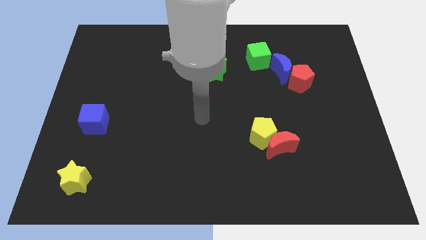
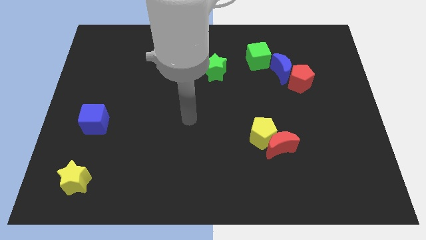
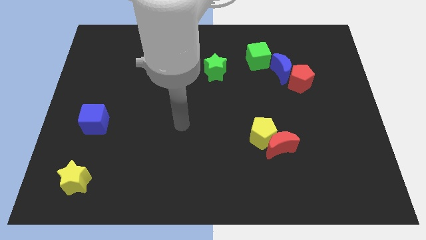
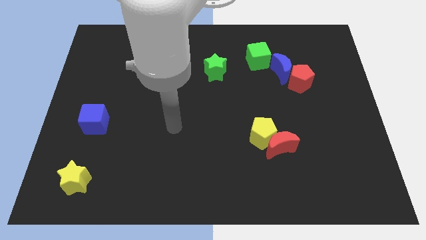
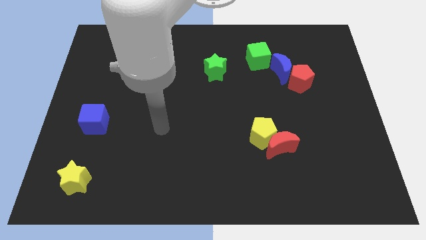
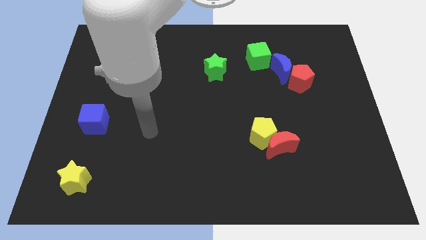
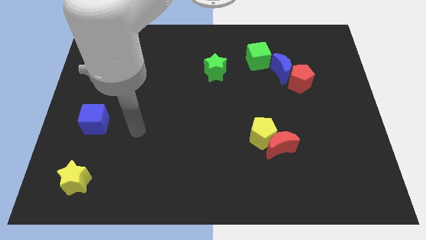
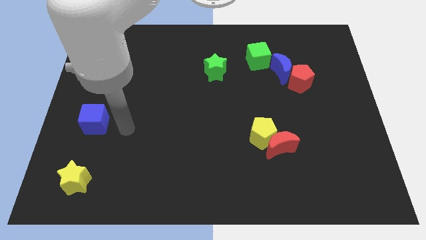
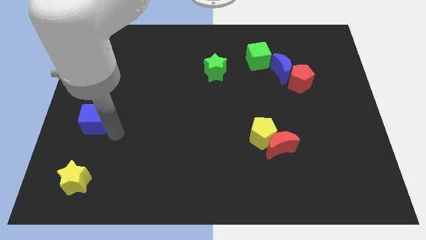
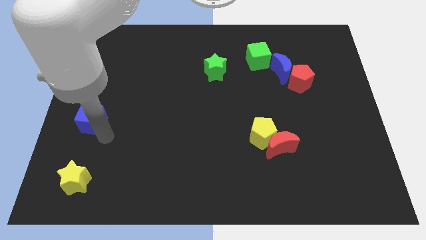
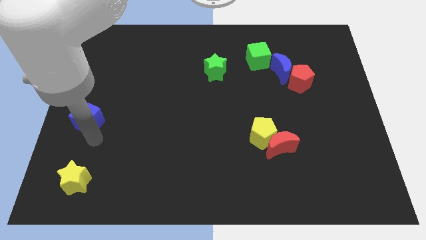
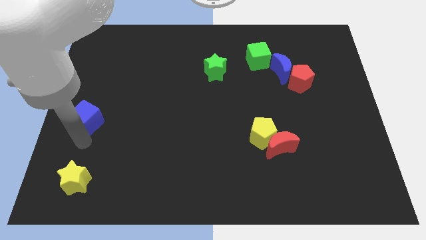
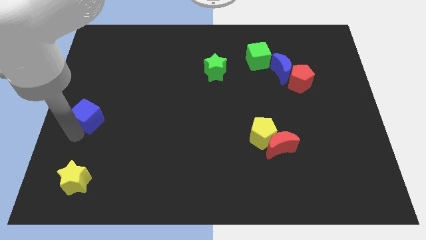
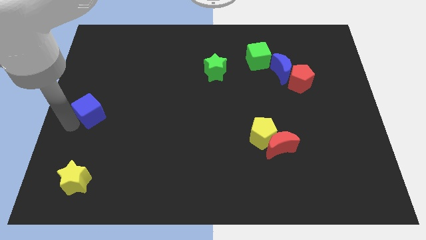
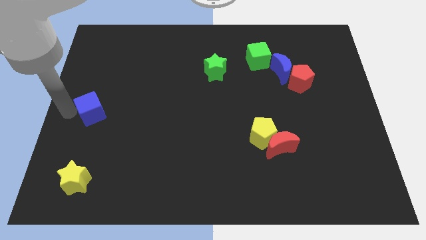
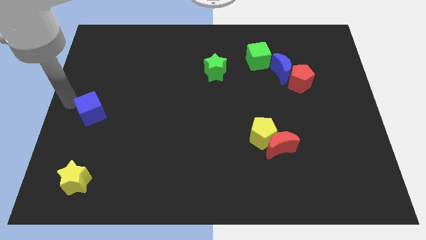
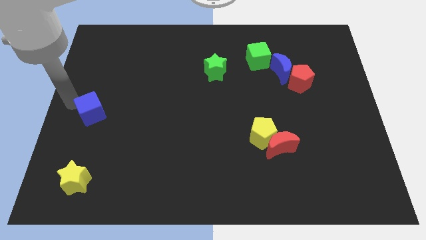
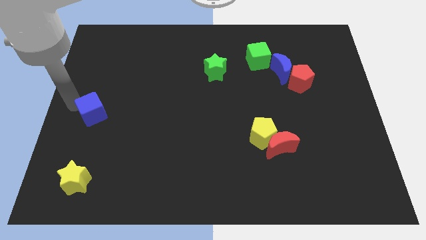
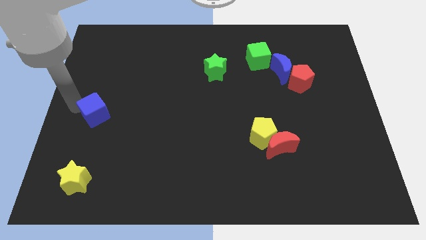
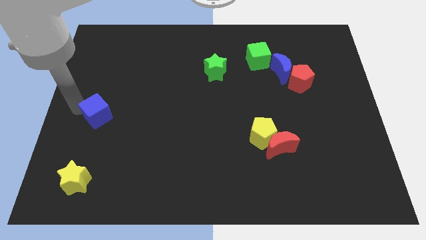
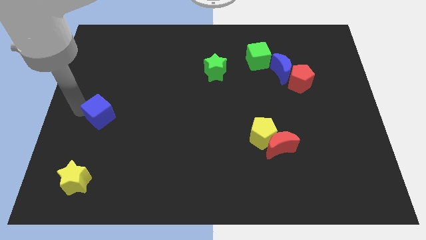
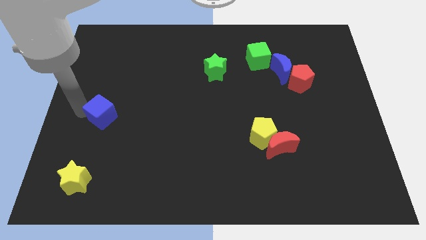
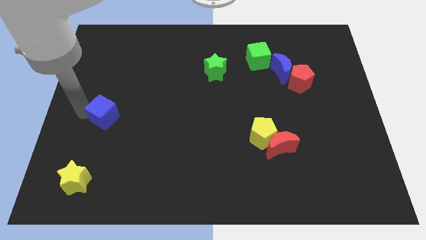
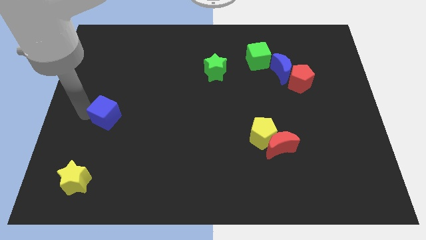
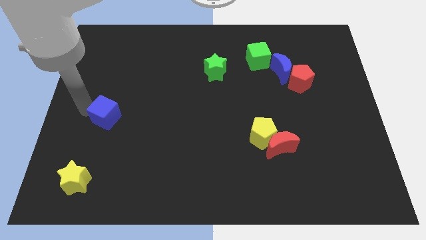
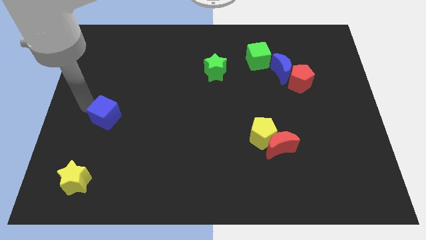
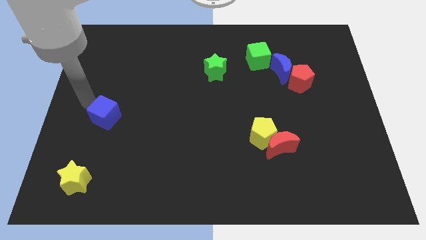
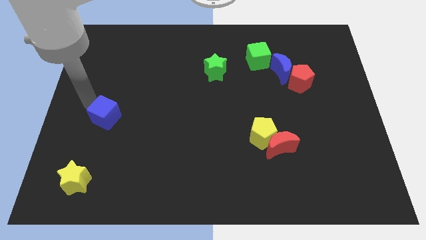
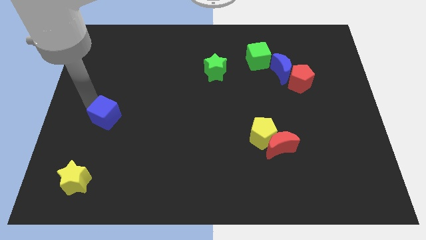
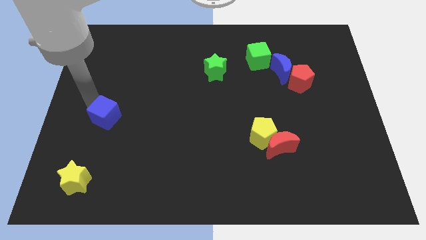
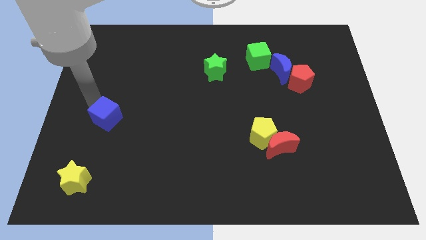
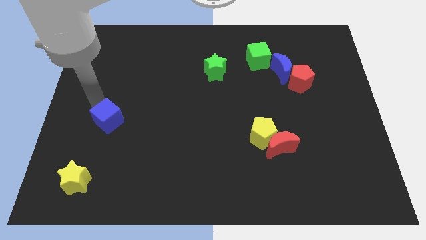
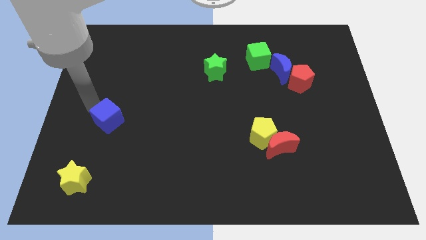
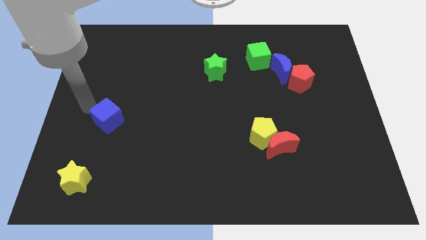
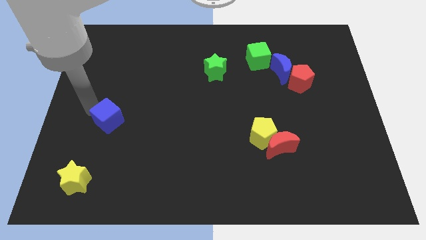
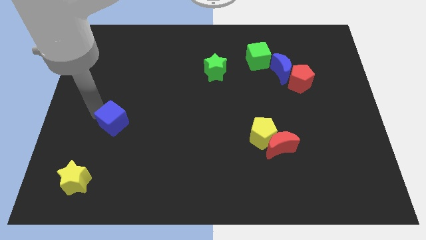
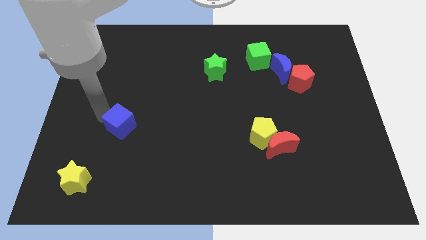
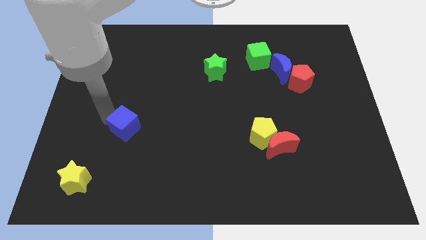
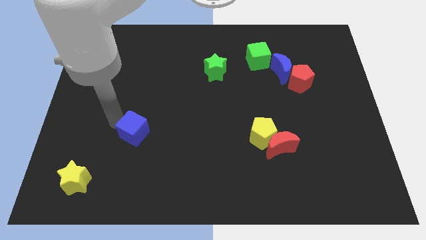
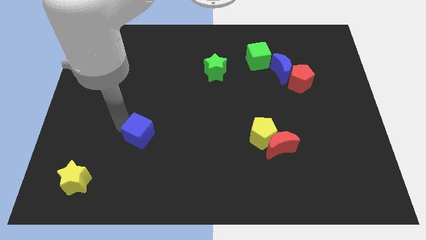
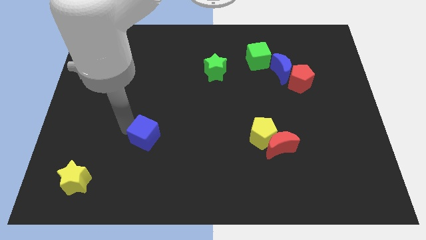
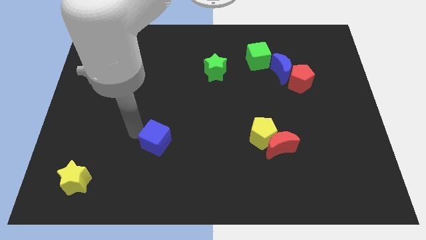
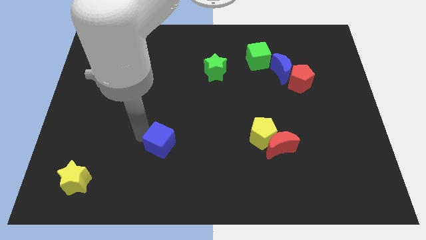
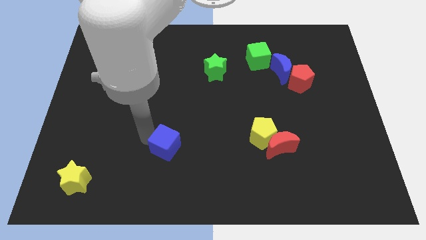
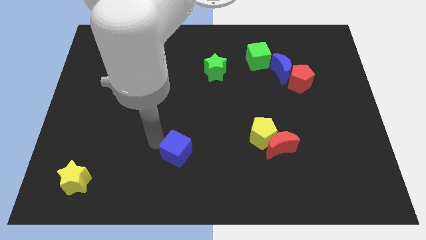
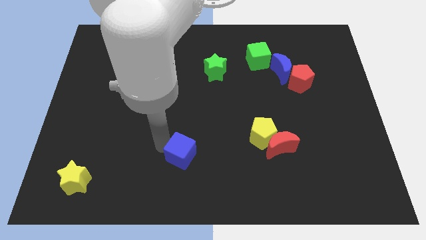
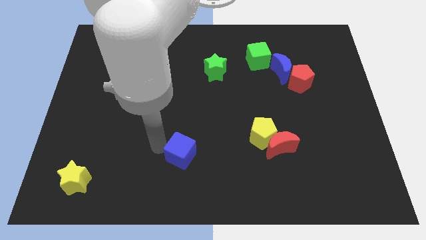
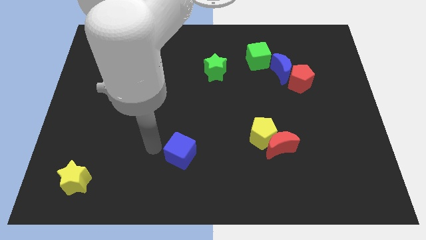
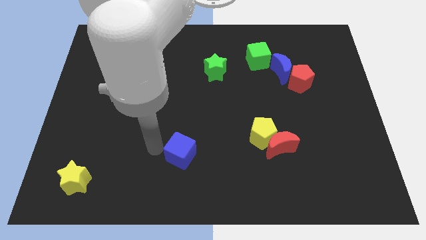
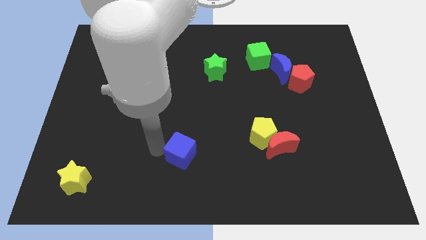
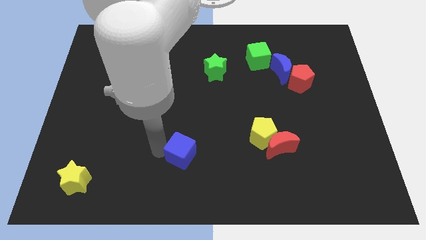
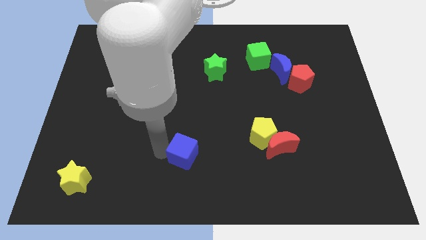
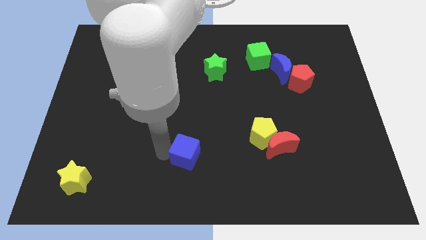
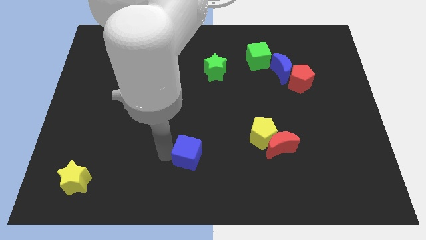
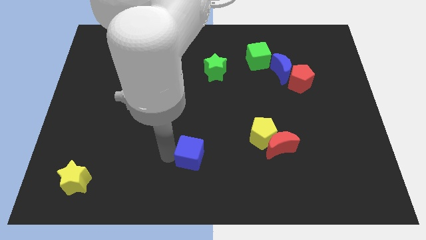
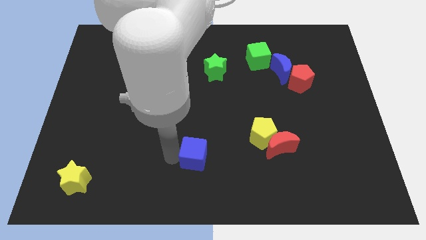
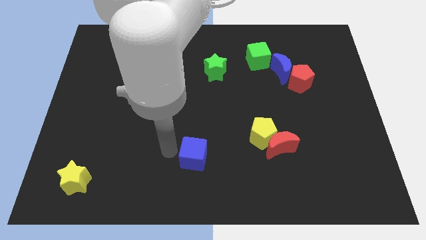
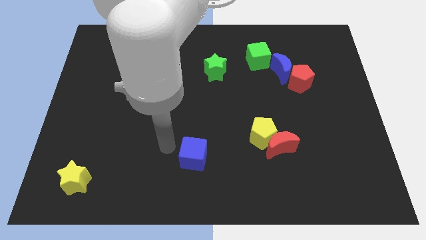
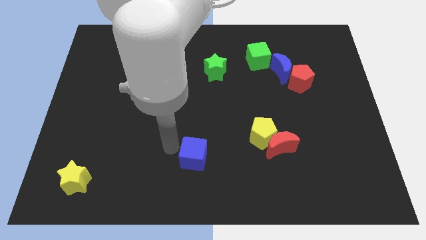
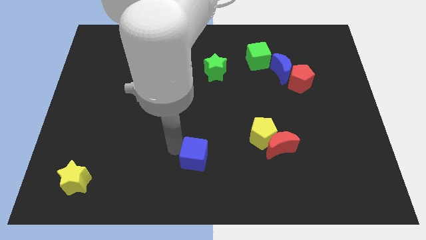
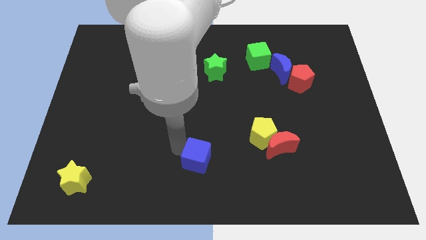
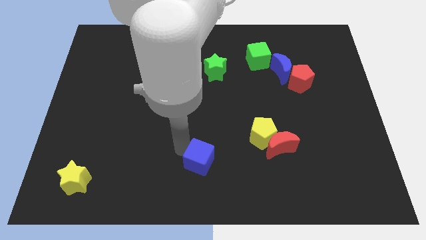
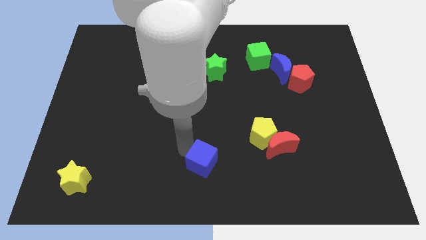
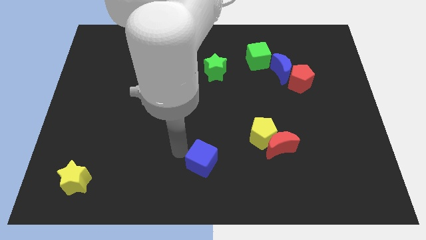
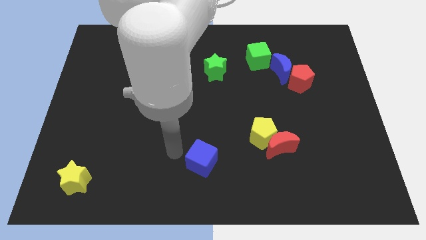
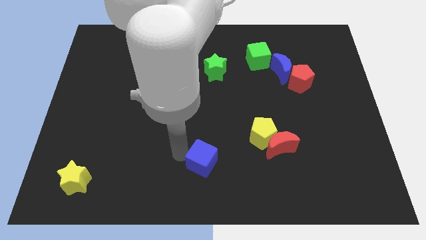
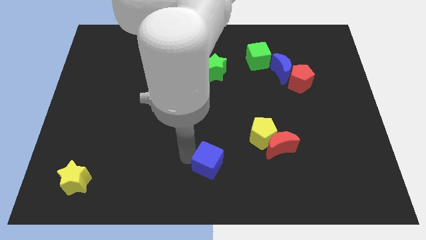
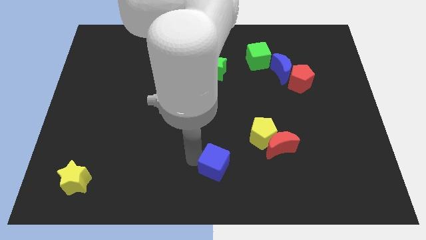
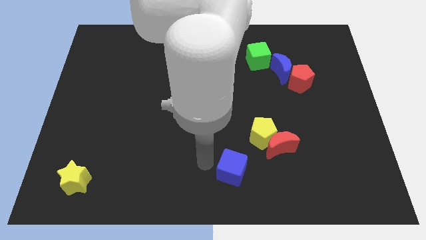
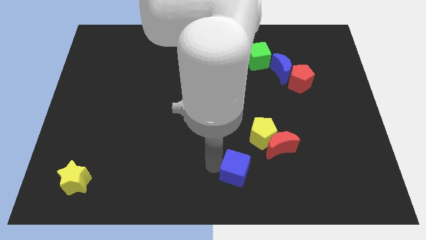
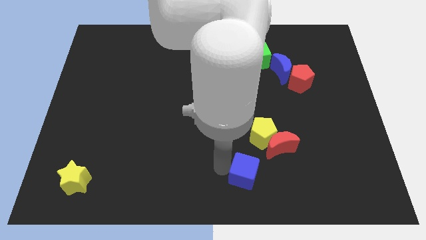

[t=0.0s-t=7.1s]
put the blue cube to the bottom side of the yellow pentagon

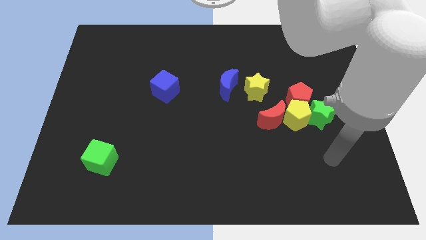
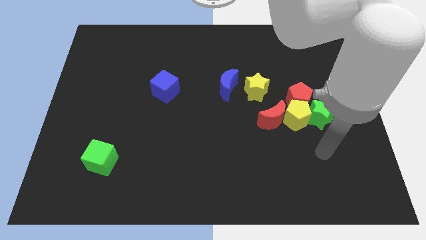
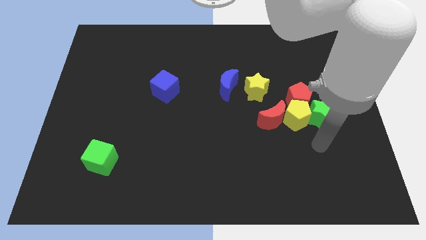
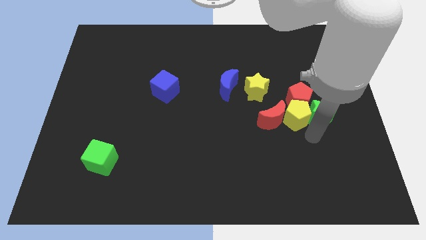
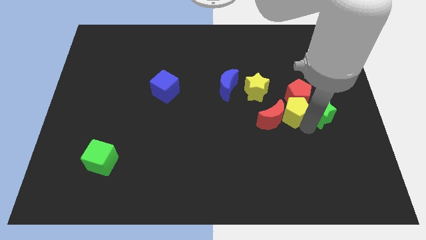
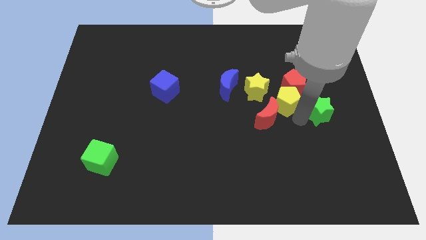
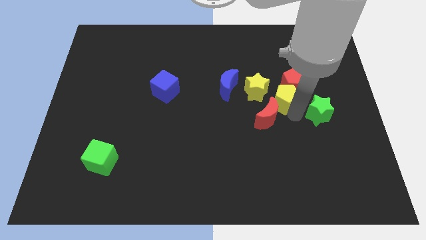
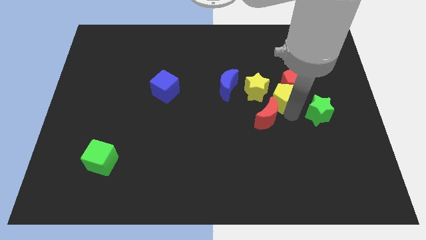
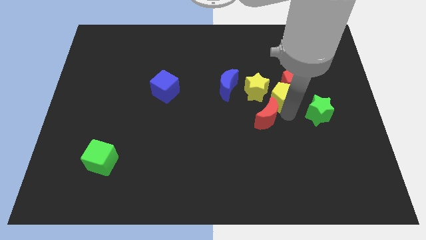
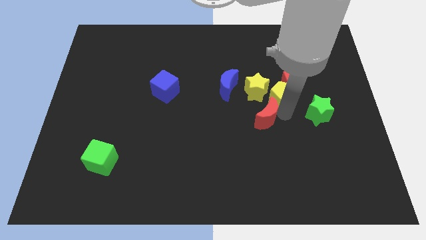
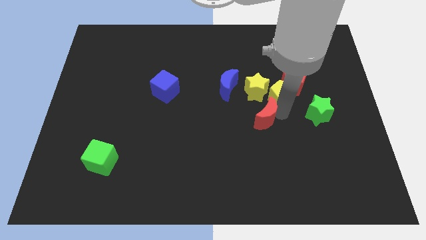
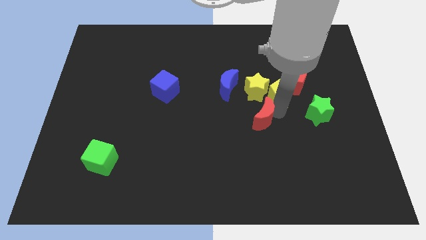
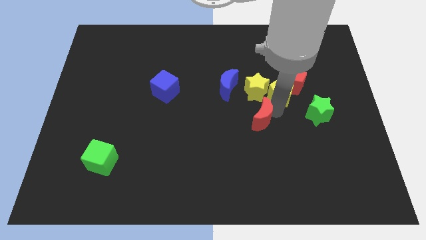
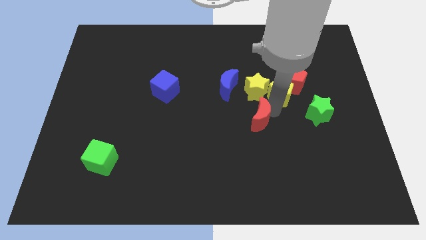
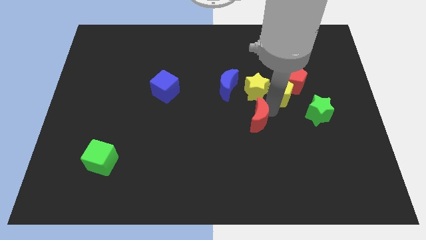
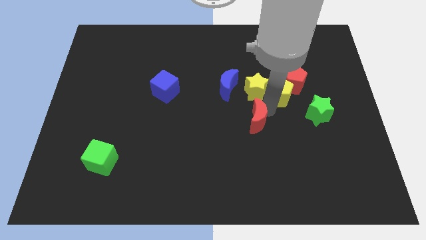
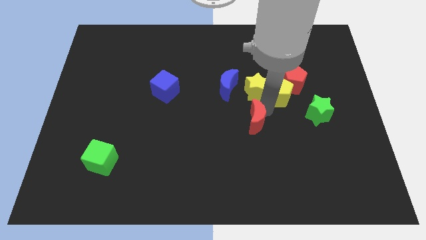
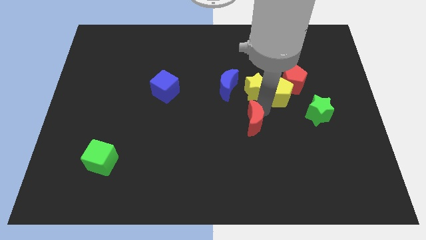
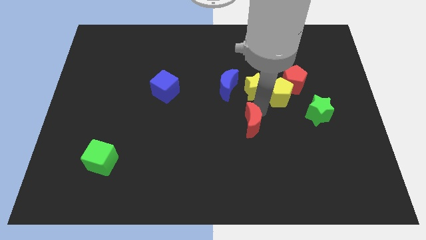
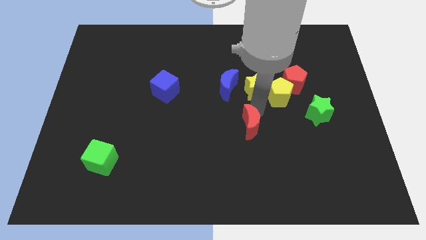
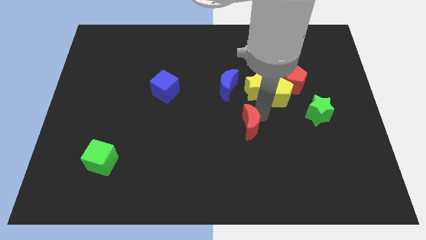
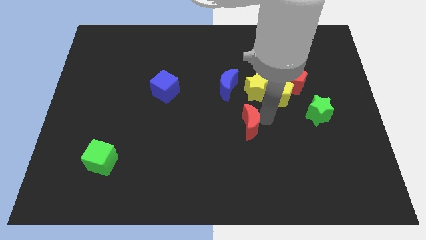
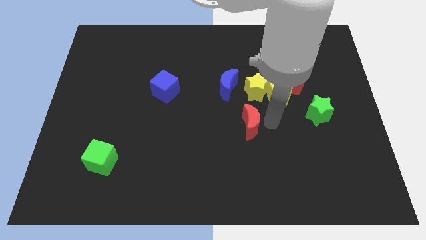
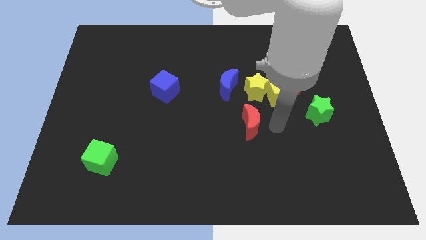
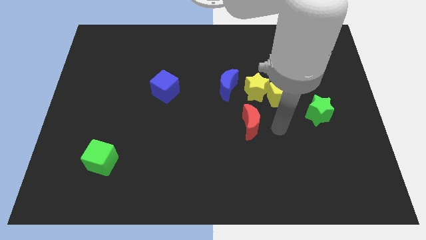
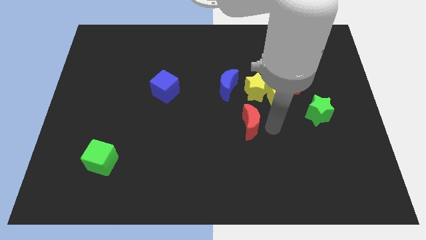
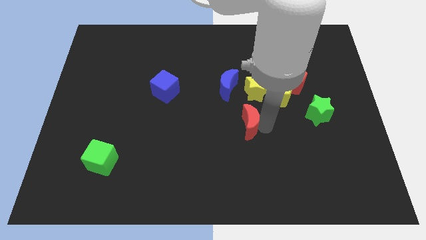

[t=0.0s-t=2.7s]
push the red moon below the blue moon
